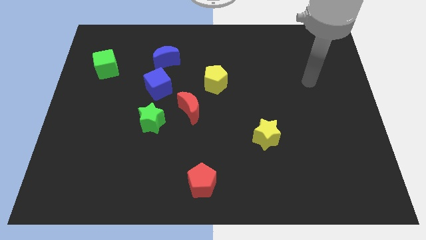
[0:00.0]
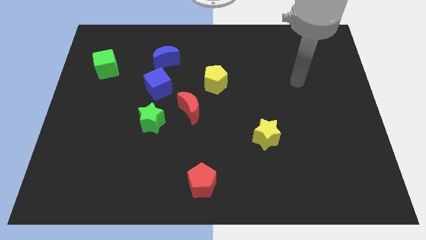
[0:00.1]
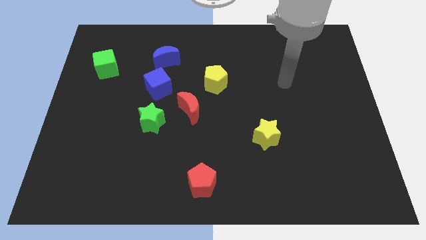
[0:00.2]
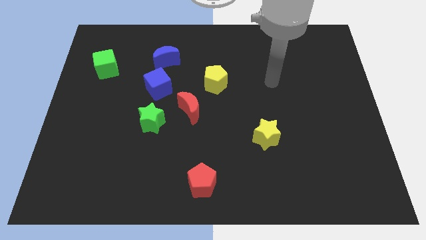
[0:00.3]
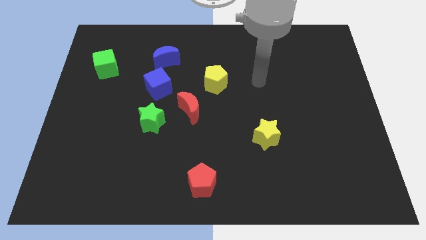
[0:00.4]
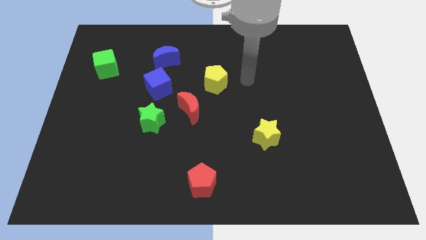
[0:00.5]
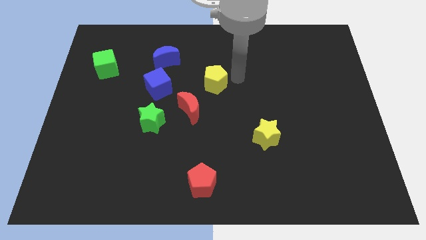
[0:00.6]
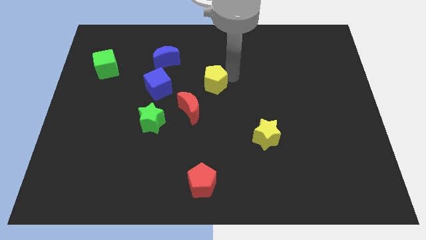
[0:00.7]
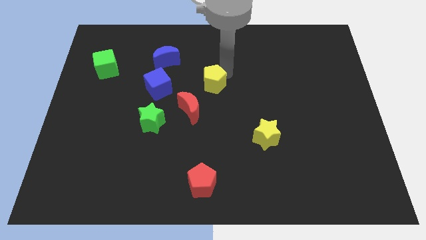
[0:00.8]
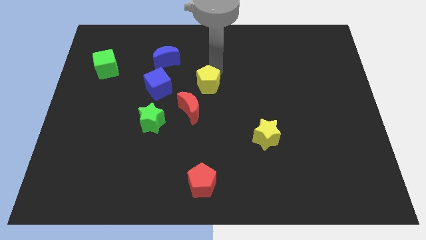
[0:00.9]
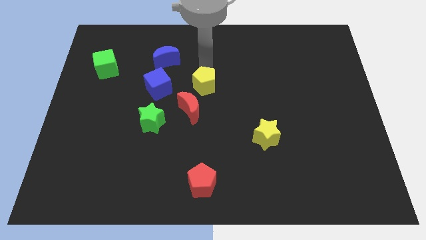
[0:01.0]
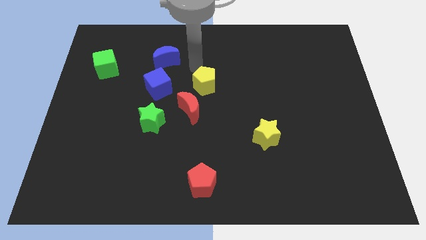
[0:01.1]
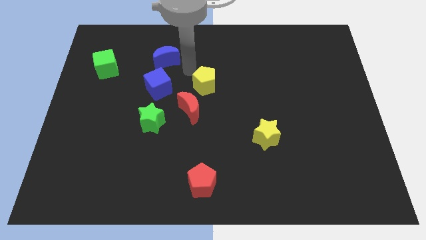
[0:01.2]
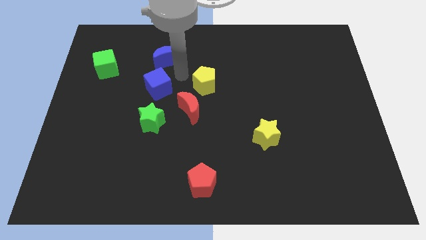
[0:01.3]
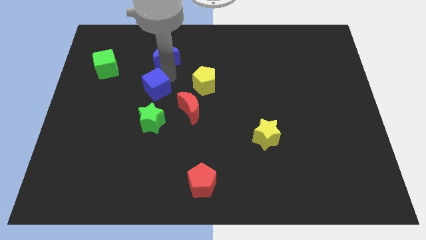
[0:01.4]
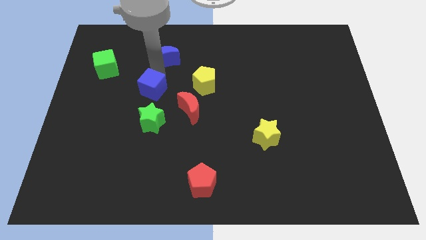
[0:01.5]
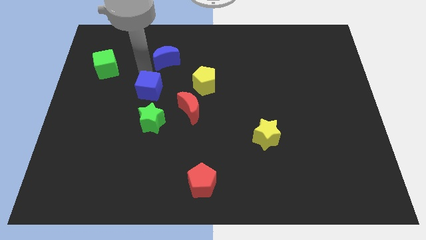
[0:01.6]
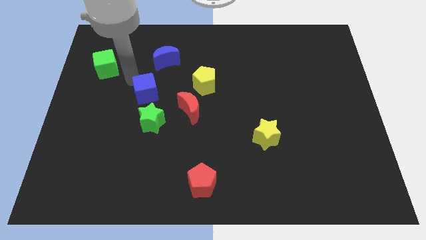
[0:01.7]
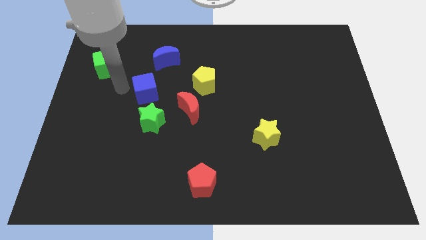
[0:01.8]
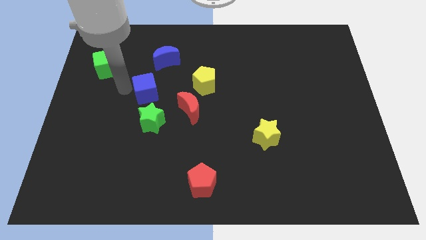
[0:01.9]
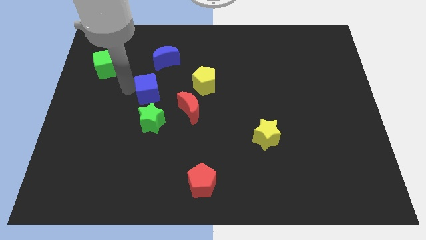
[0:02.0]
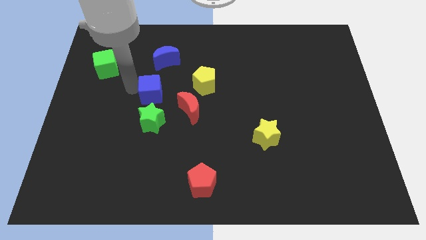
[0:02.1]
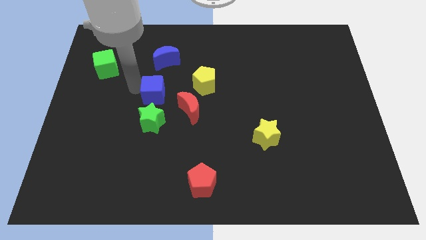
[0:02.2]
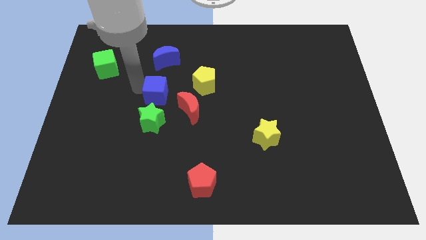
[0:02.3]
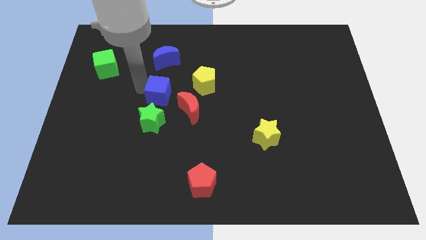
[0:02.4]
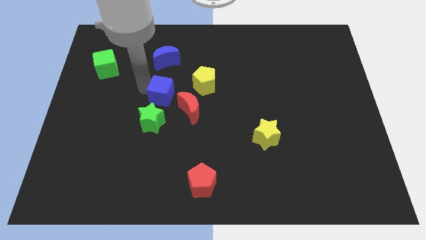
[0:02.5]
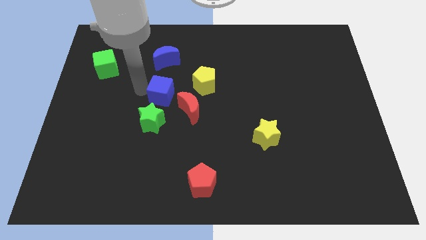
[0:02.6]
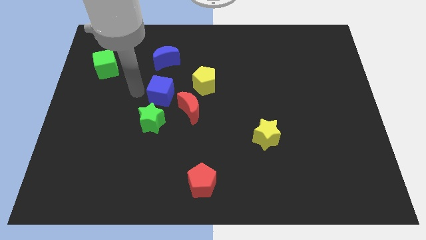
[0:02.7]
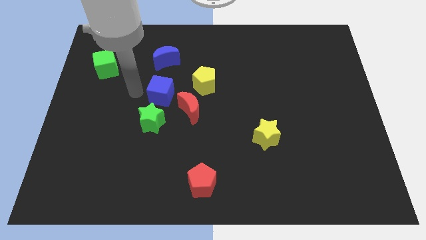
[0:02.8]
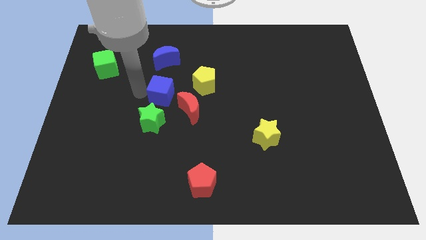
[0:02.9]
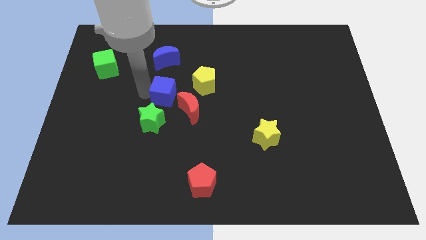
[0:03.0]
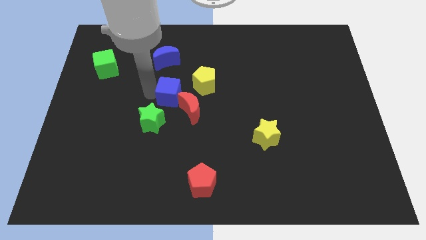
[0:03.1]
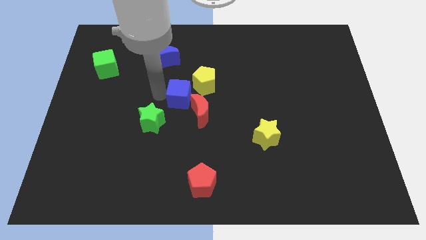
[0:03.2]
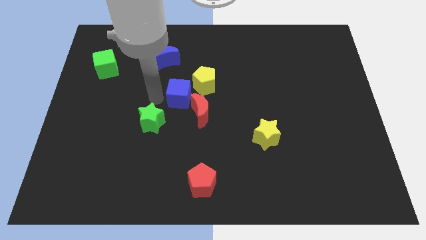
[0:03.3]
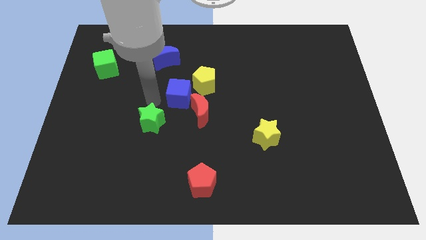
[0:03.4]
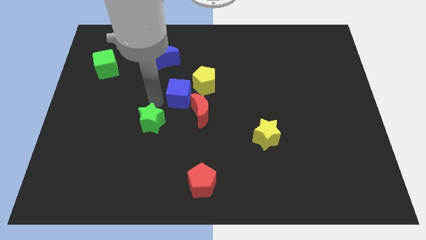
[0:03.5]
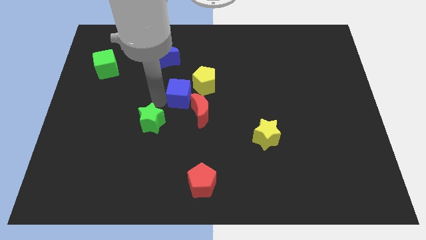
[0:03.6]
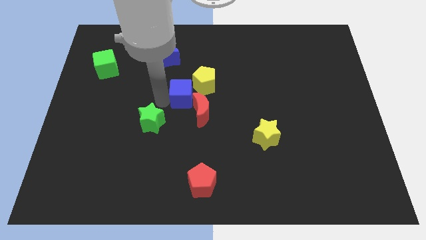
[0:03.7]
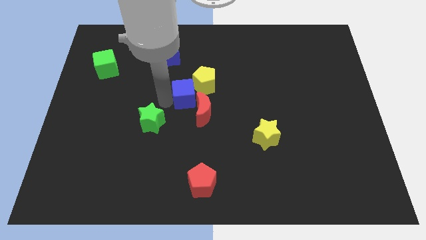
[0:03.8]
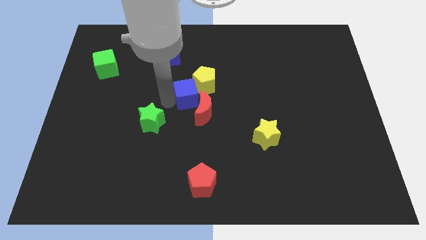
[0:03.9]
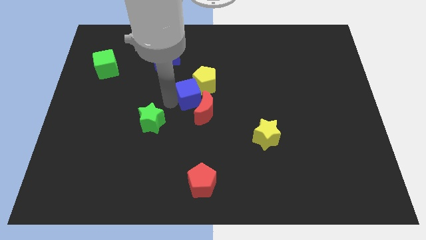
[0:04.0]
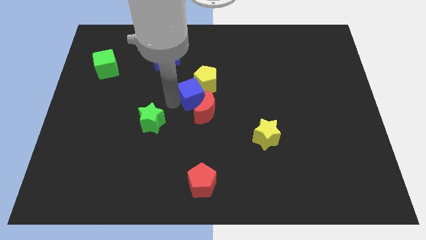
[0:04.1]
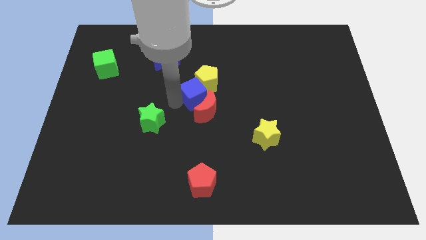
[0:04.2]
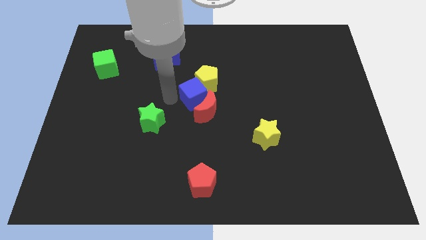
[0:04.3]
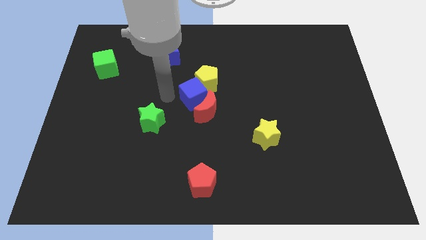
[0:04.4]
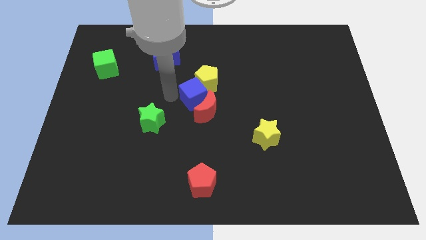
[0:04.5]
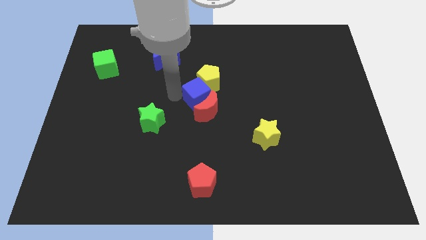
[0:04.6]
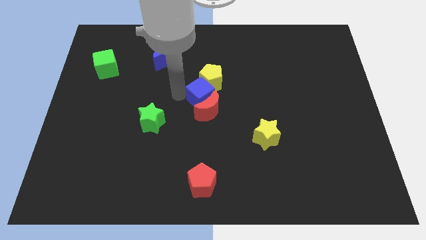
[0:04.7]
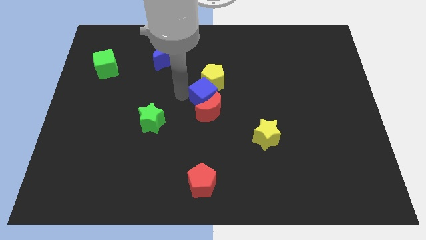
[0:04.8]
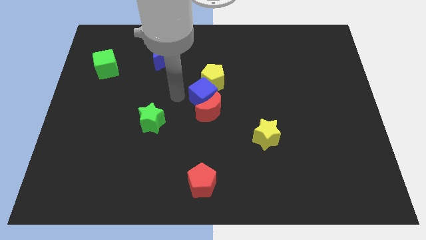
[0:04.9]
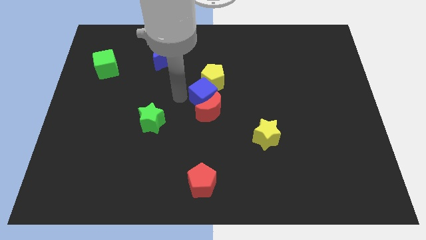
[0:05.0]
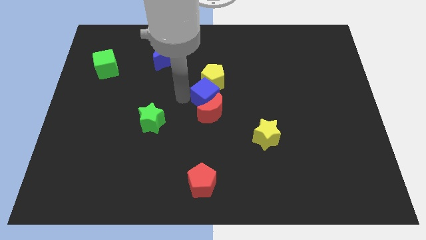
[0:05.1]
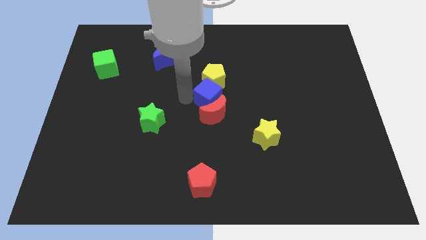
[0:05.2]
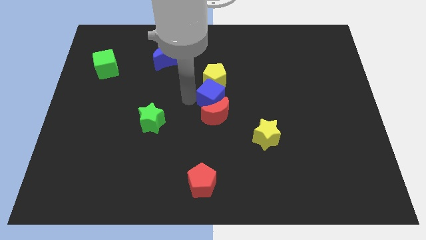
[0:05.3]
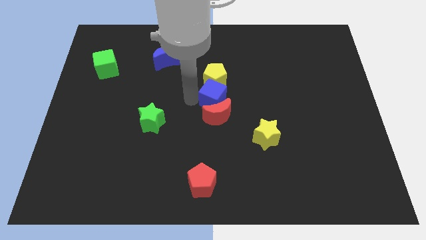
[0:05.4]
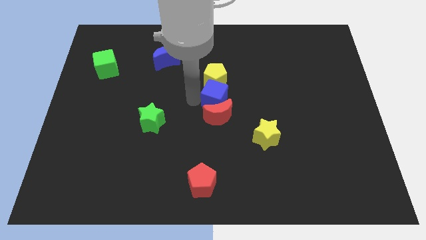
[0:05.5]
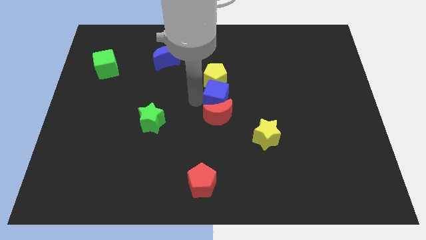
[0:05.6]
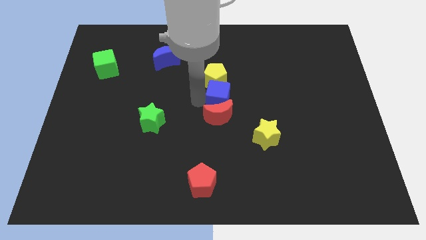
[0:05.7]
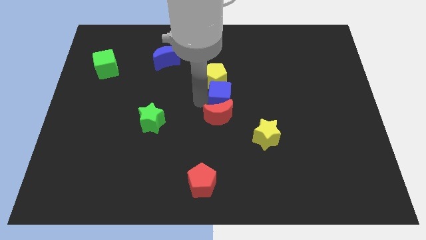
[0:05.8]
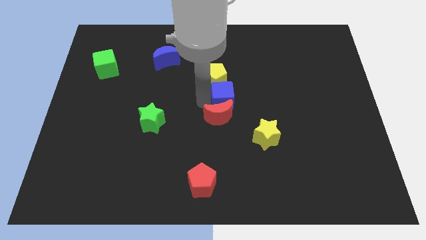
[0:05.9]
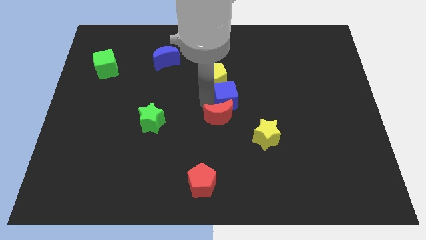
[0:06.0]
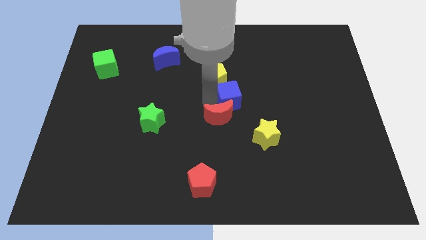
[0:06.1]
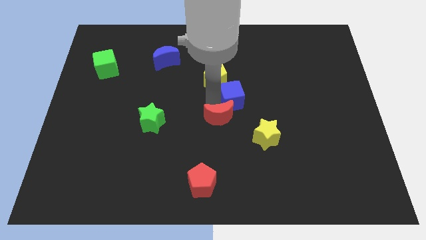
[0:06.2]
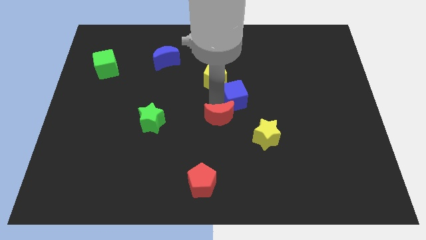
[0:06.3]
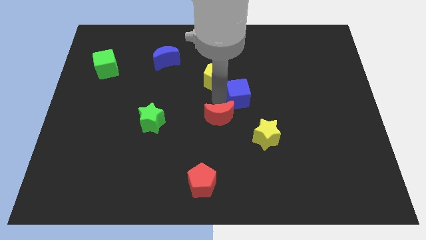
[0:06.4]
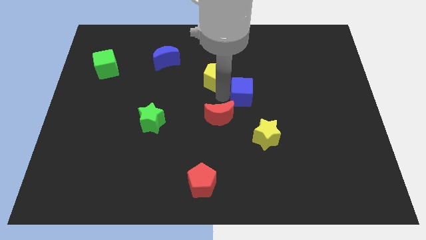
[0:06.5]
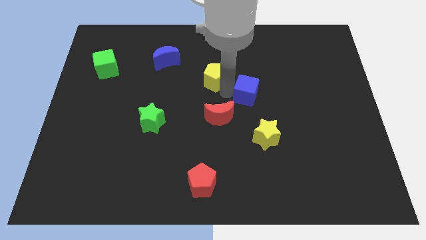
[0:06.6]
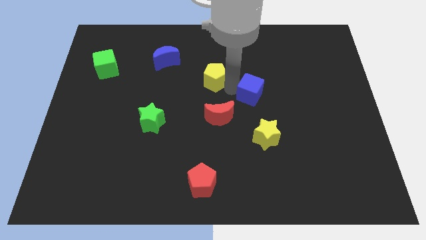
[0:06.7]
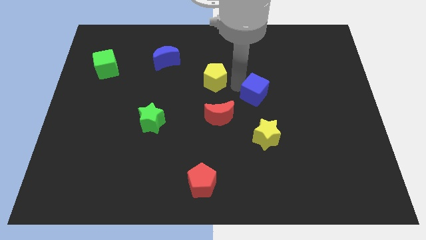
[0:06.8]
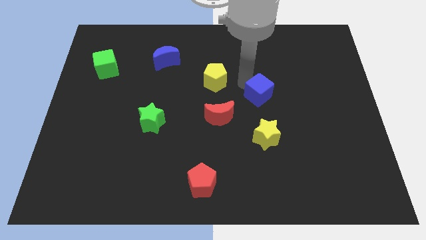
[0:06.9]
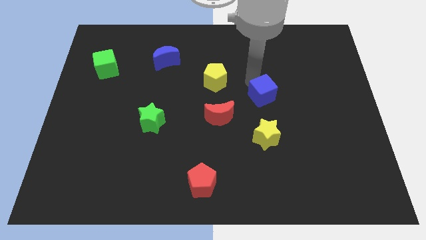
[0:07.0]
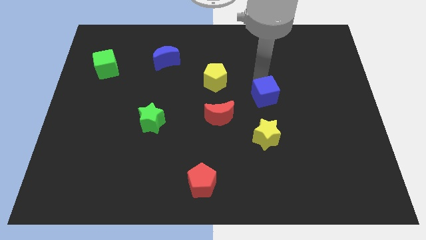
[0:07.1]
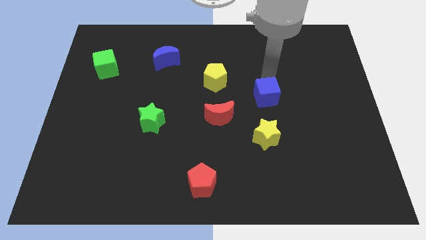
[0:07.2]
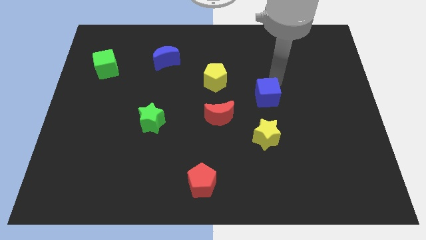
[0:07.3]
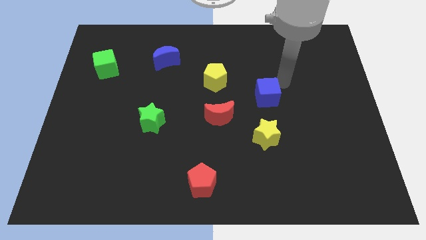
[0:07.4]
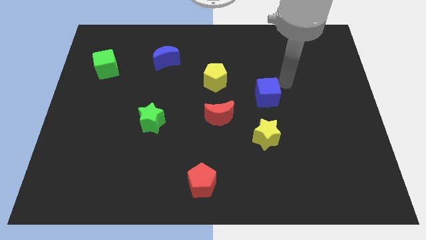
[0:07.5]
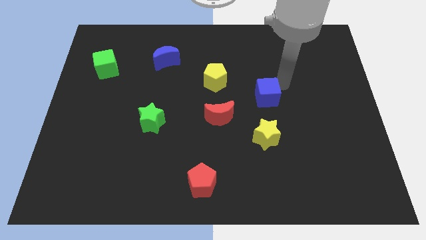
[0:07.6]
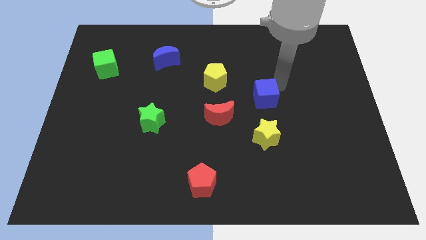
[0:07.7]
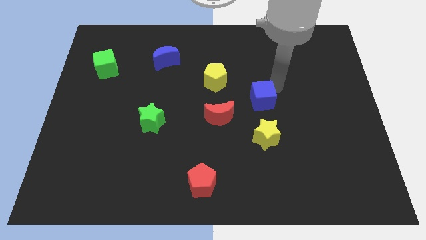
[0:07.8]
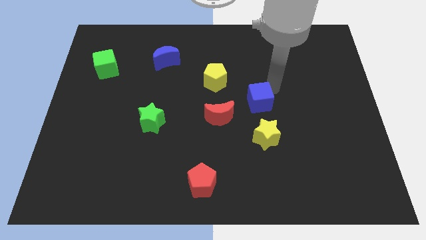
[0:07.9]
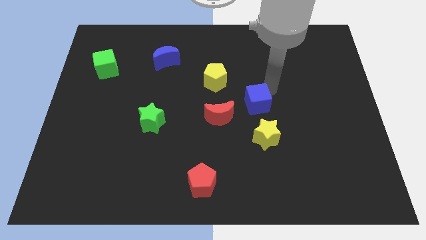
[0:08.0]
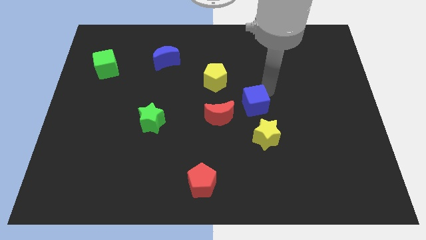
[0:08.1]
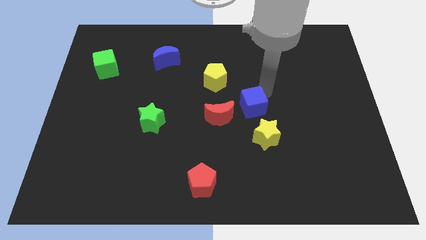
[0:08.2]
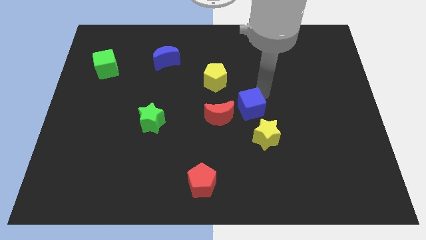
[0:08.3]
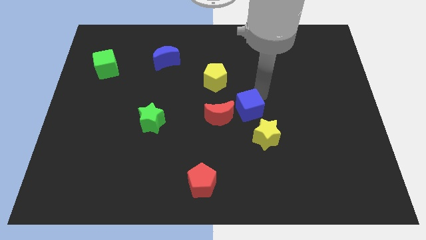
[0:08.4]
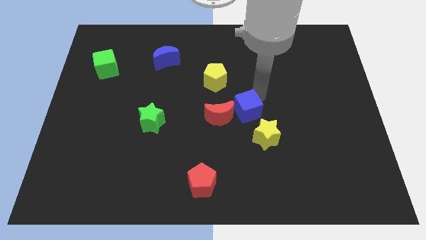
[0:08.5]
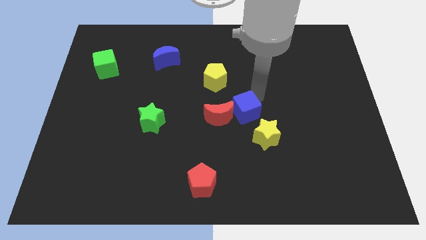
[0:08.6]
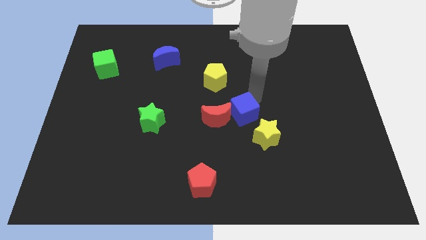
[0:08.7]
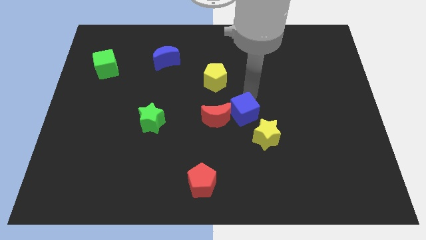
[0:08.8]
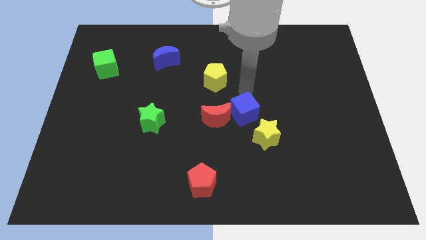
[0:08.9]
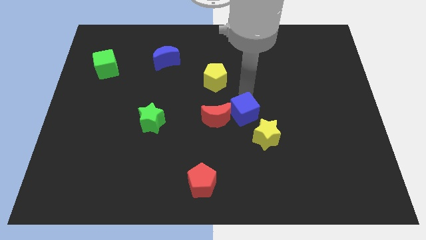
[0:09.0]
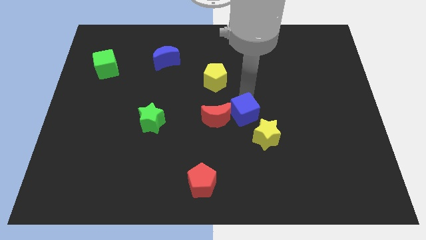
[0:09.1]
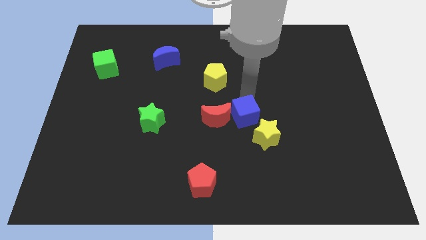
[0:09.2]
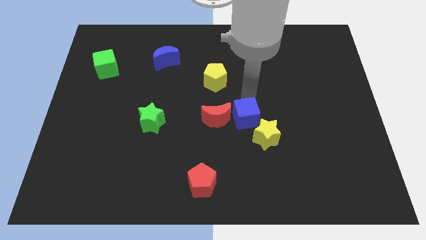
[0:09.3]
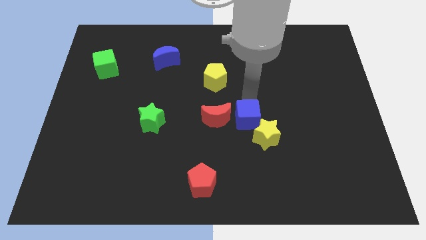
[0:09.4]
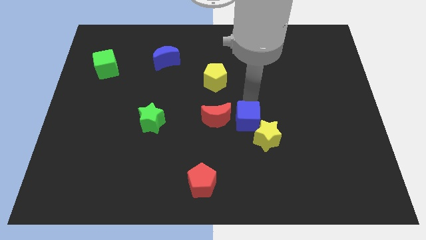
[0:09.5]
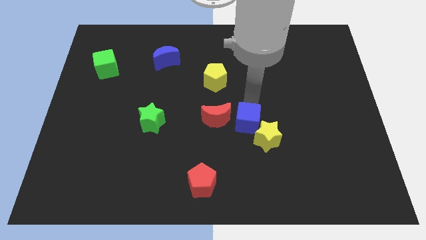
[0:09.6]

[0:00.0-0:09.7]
push the blue cube down and then right
